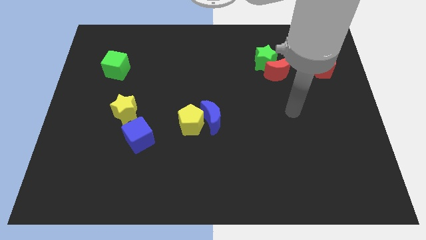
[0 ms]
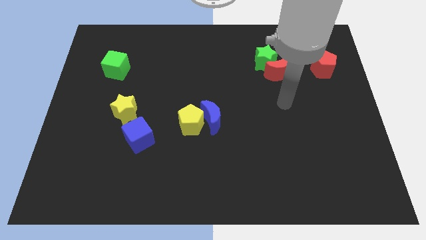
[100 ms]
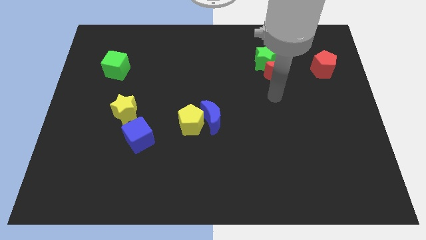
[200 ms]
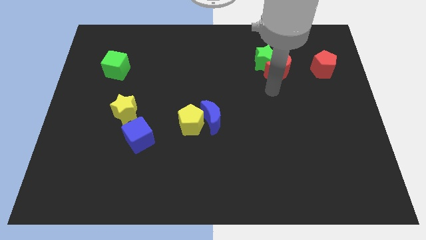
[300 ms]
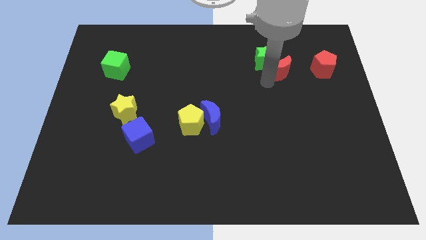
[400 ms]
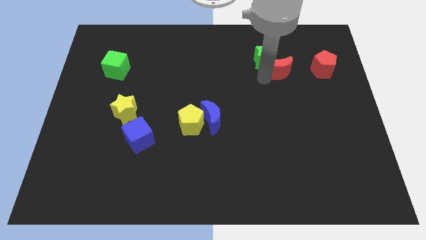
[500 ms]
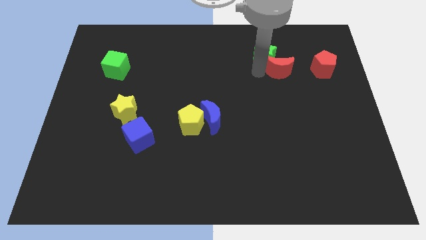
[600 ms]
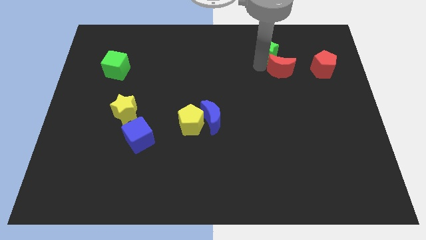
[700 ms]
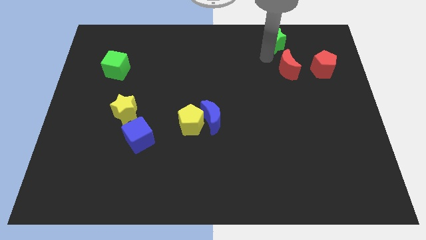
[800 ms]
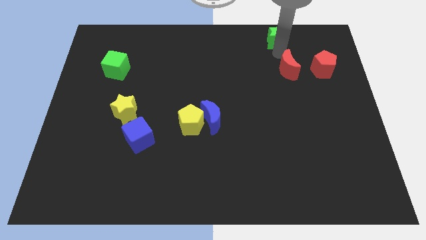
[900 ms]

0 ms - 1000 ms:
separate the red moon from the green star

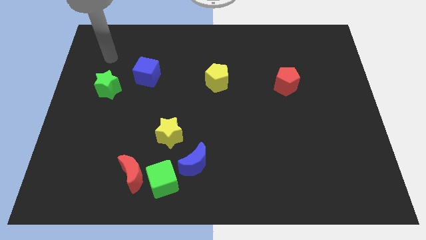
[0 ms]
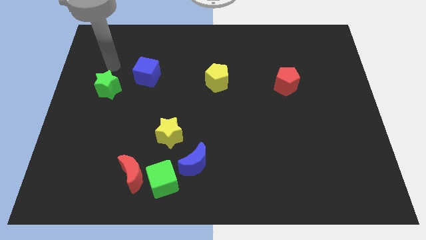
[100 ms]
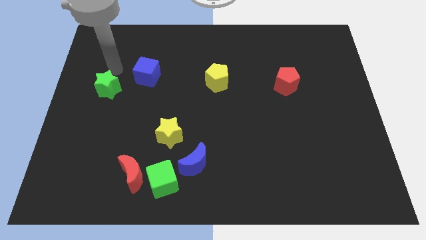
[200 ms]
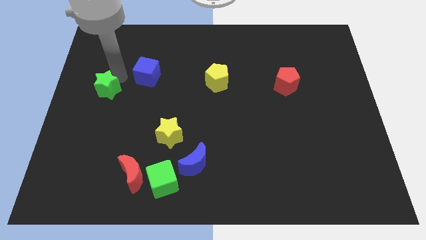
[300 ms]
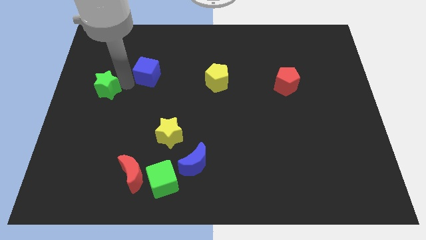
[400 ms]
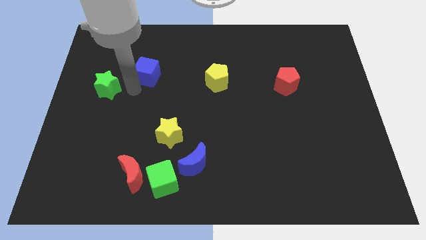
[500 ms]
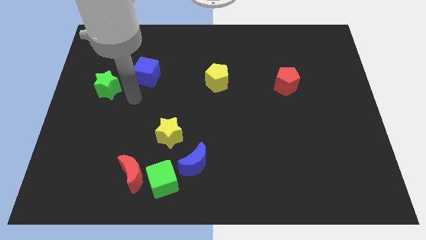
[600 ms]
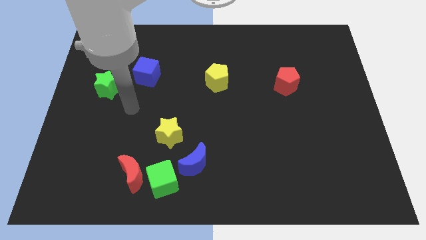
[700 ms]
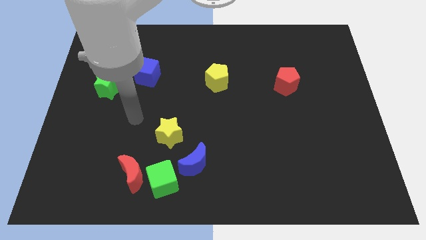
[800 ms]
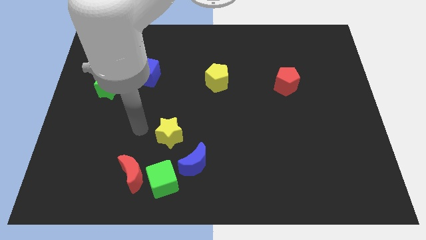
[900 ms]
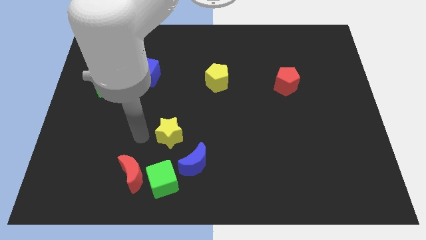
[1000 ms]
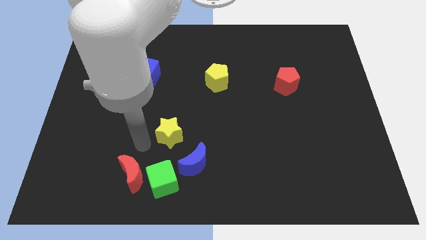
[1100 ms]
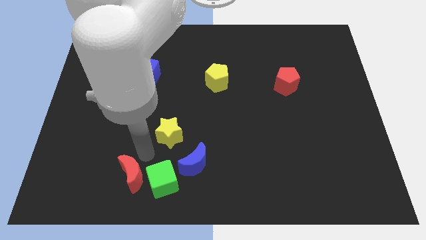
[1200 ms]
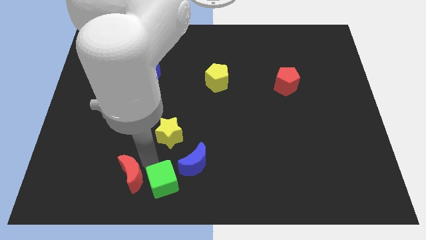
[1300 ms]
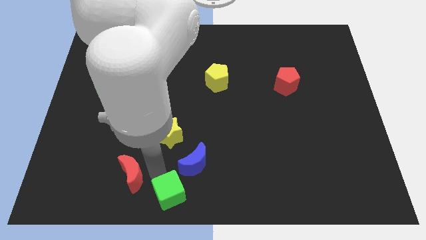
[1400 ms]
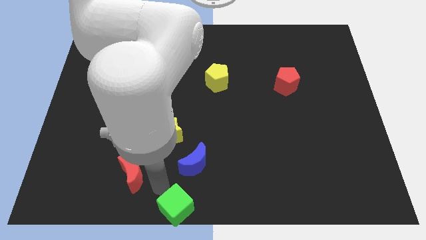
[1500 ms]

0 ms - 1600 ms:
separate the red moon from the green cube

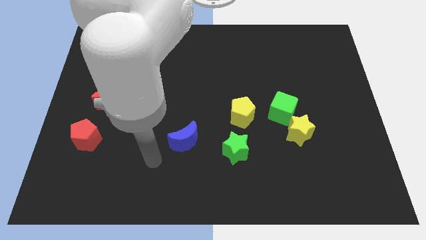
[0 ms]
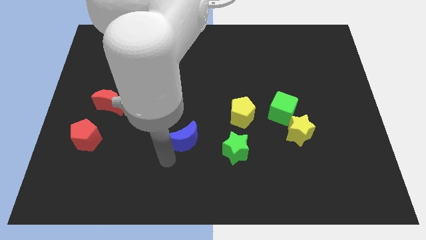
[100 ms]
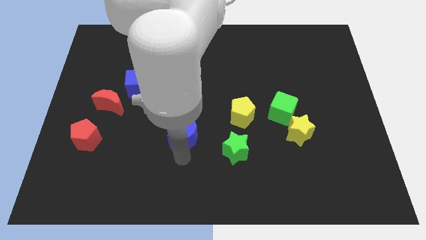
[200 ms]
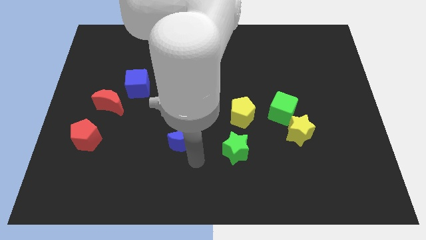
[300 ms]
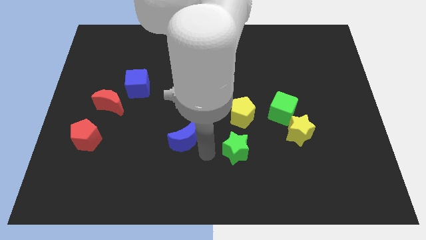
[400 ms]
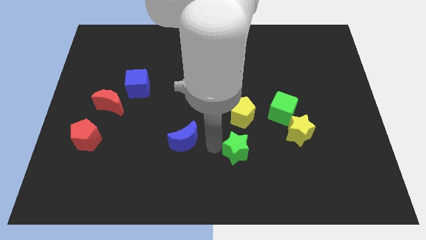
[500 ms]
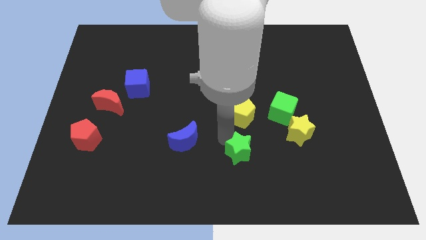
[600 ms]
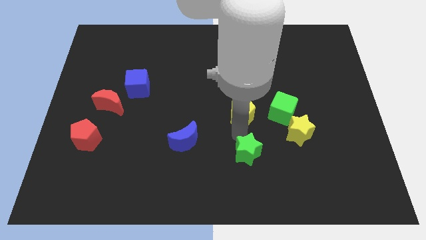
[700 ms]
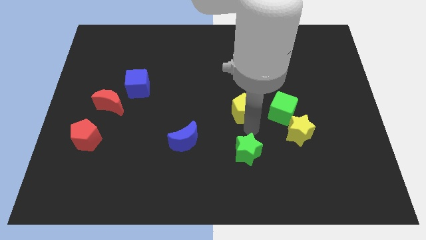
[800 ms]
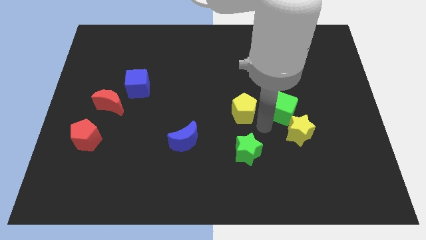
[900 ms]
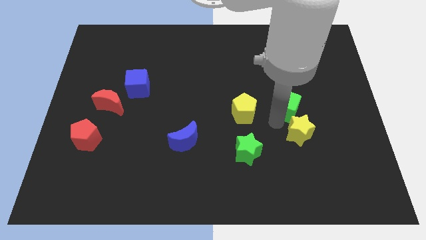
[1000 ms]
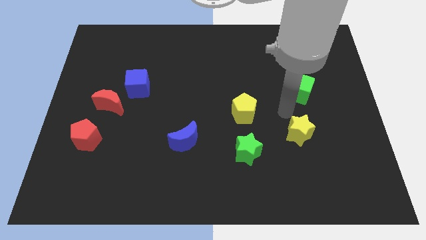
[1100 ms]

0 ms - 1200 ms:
separate the yellow star from the green cube

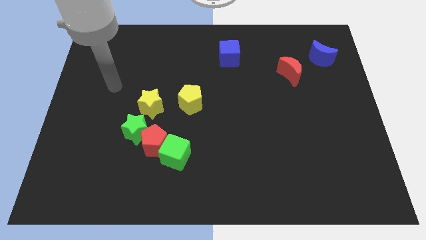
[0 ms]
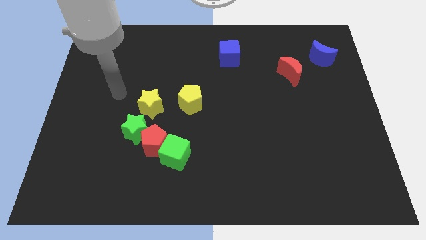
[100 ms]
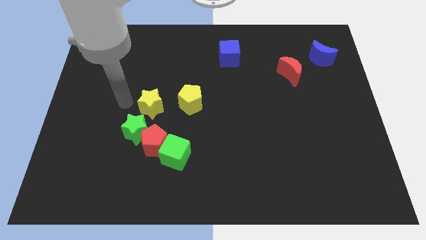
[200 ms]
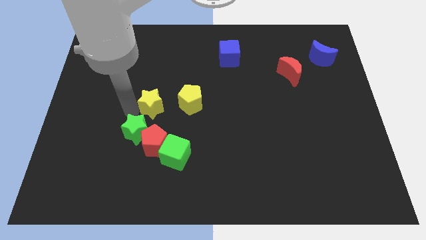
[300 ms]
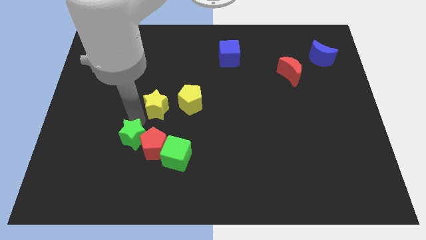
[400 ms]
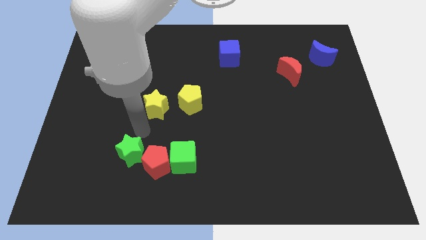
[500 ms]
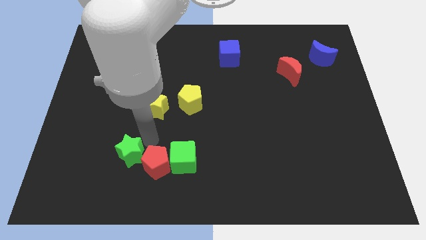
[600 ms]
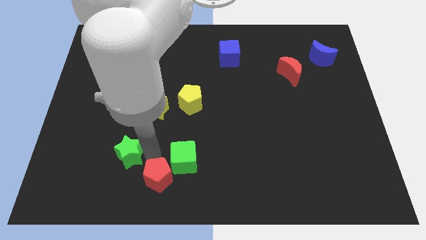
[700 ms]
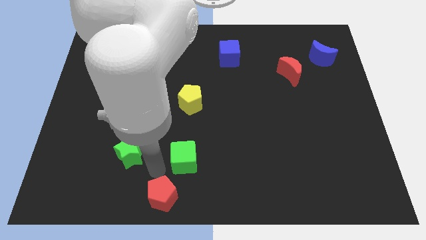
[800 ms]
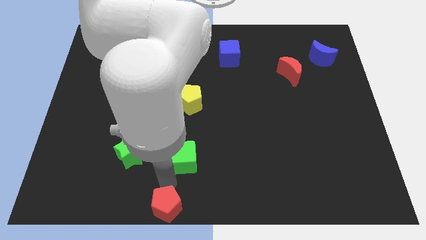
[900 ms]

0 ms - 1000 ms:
separate the green cube from the red pentagon

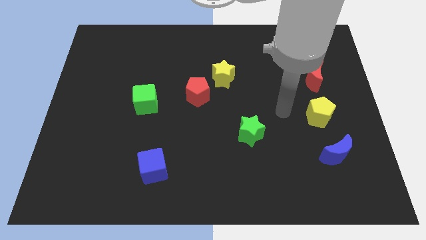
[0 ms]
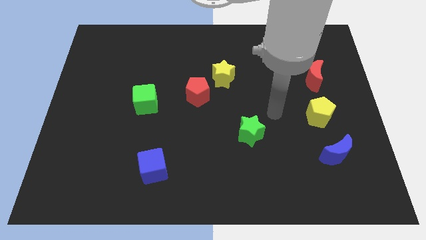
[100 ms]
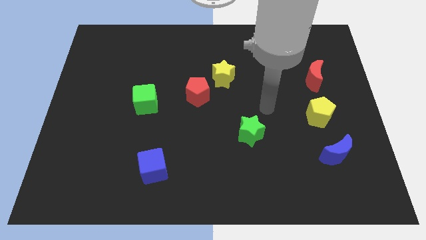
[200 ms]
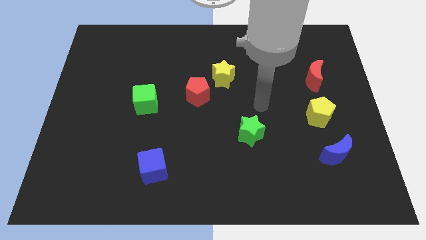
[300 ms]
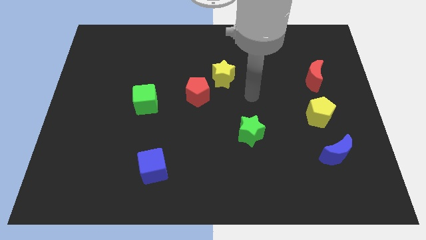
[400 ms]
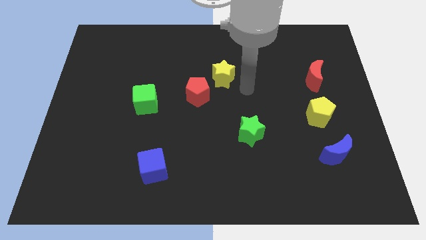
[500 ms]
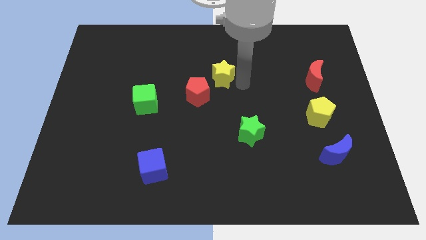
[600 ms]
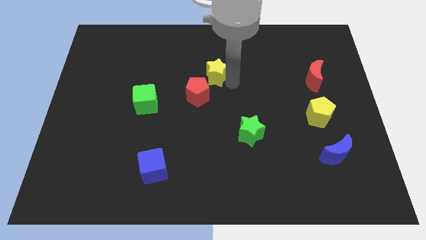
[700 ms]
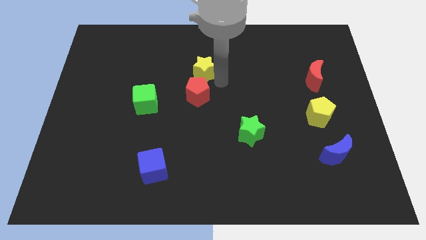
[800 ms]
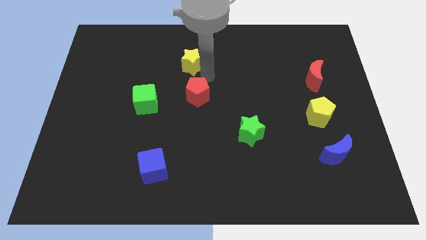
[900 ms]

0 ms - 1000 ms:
separate the red pentagon from the yellow star

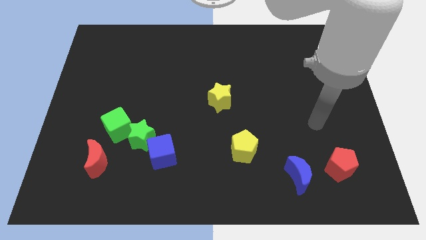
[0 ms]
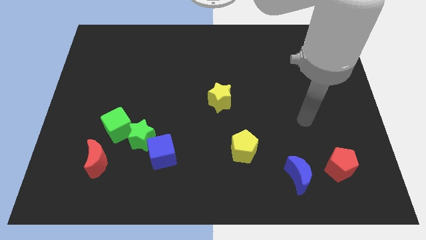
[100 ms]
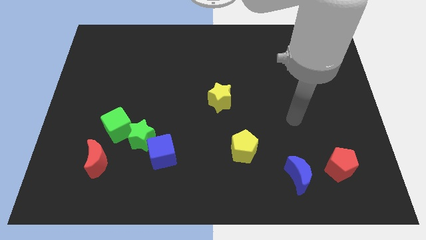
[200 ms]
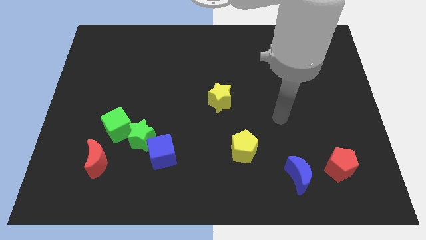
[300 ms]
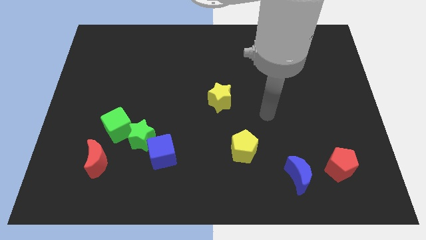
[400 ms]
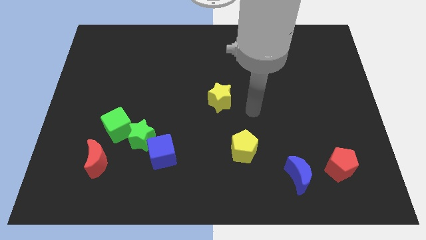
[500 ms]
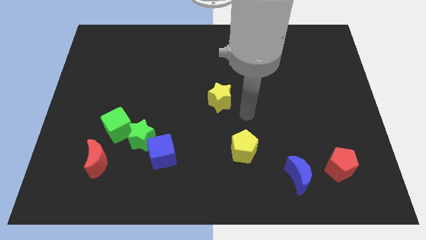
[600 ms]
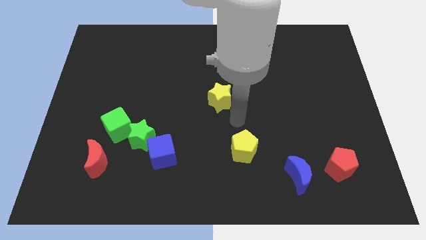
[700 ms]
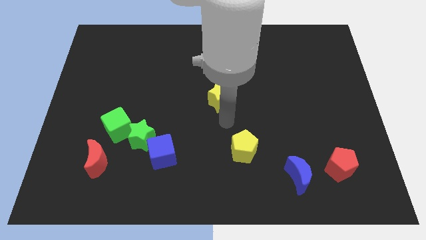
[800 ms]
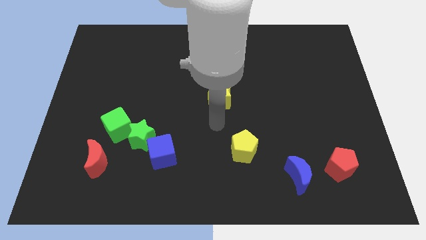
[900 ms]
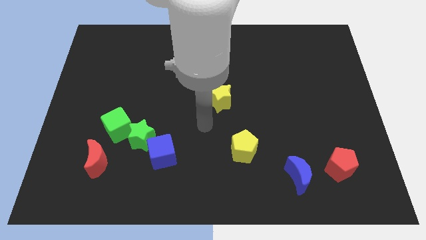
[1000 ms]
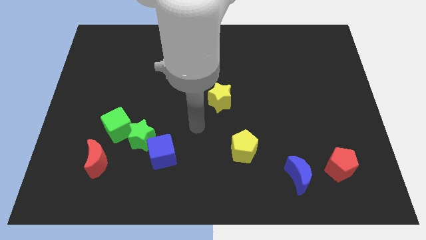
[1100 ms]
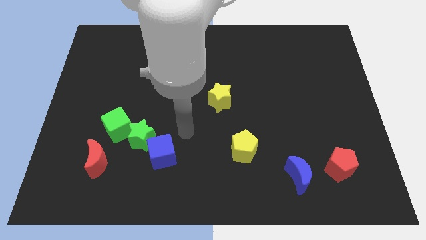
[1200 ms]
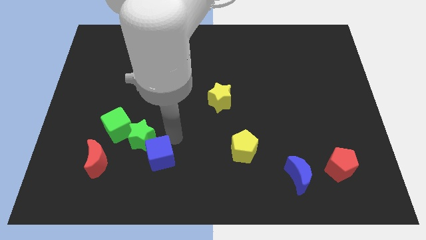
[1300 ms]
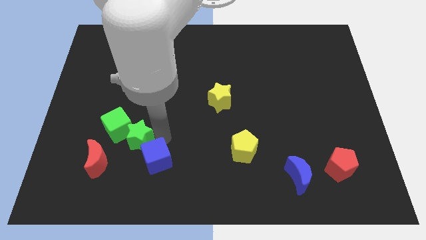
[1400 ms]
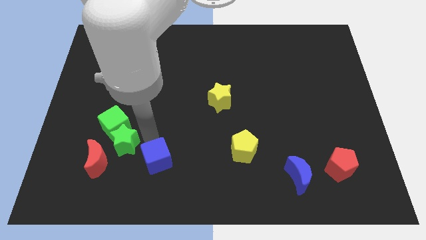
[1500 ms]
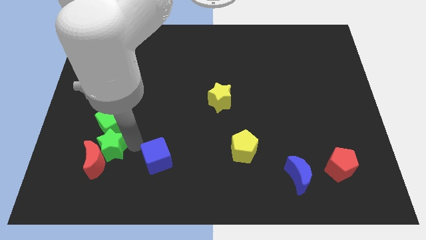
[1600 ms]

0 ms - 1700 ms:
move the blue cube away from the green star

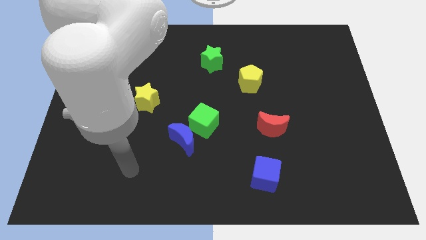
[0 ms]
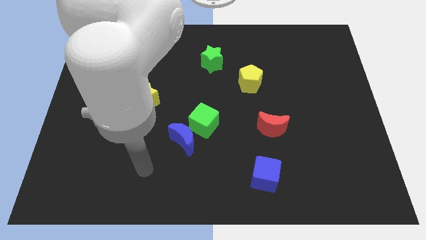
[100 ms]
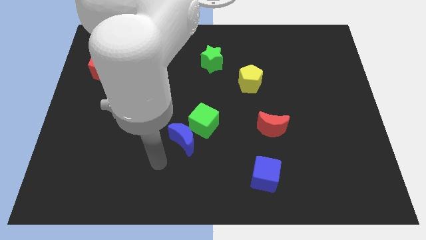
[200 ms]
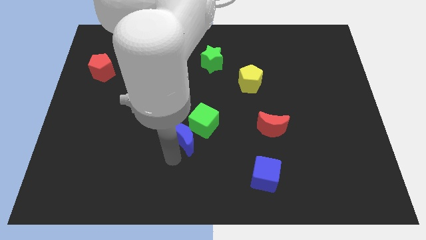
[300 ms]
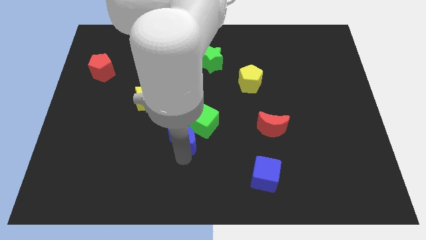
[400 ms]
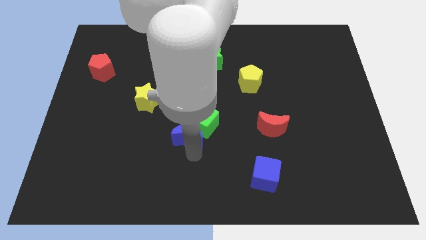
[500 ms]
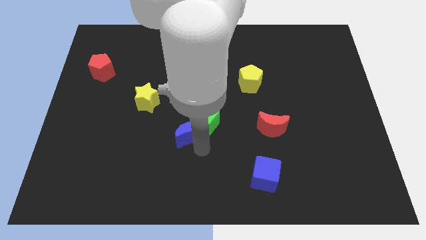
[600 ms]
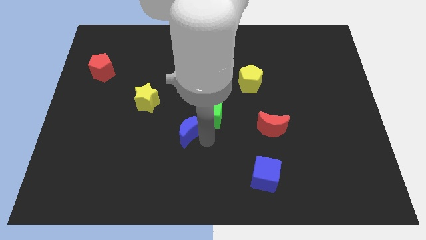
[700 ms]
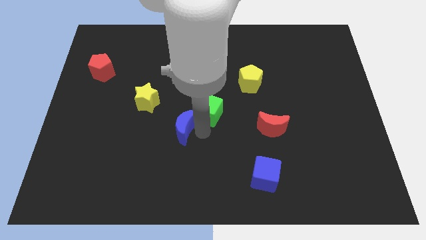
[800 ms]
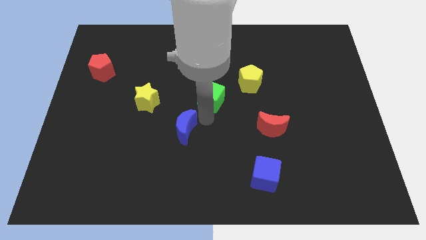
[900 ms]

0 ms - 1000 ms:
move the blue moon away from the green cube

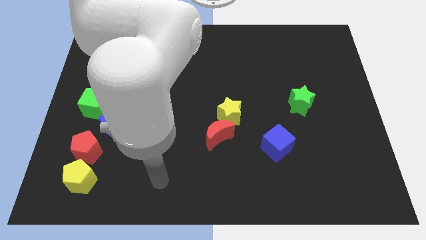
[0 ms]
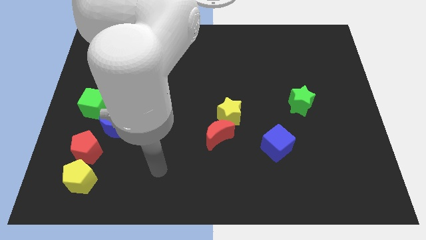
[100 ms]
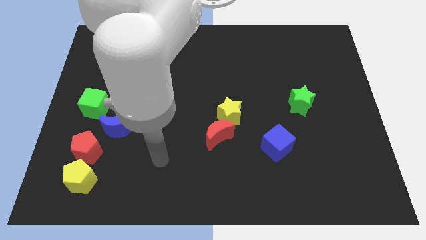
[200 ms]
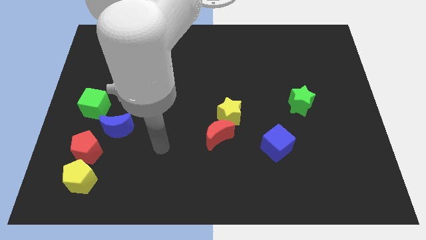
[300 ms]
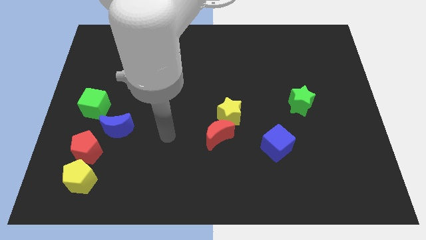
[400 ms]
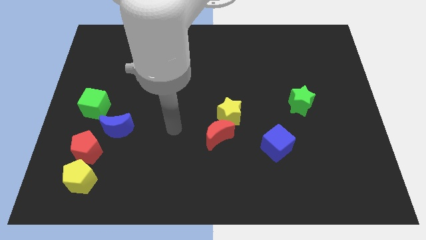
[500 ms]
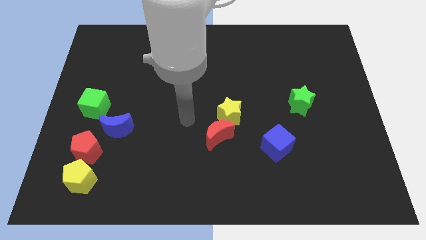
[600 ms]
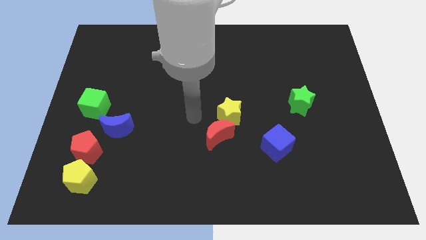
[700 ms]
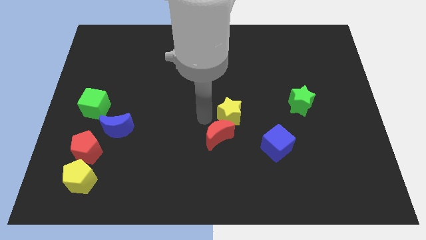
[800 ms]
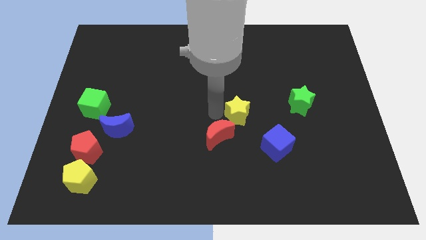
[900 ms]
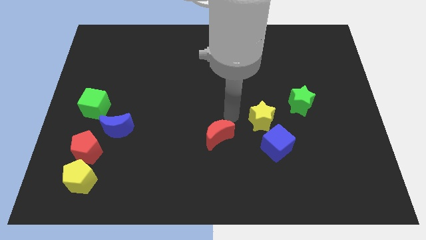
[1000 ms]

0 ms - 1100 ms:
pull the red moon apart from the yellow star
